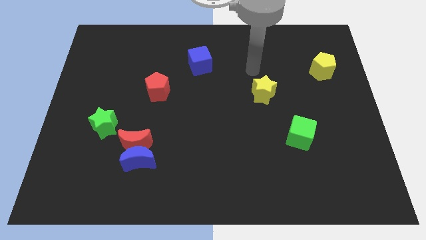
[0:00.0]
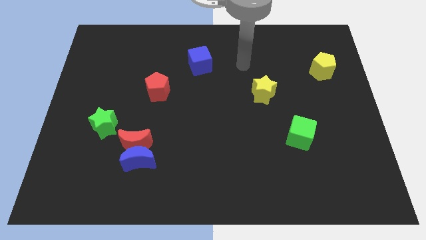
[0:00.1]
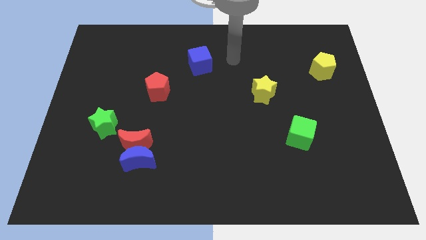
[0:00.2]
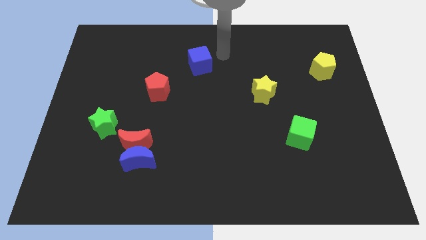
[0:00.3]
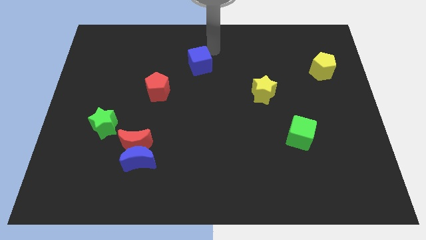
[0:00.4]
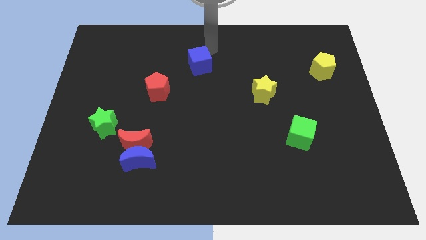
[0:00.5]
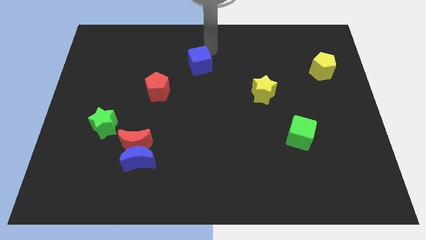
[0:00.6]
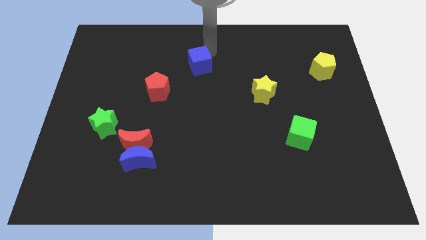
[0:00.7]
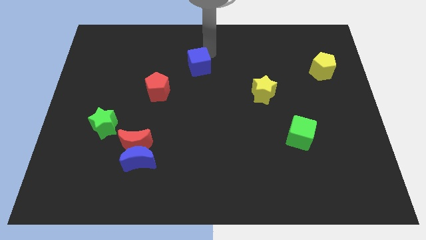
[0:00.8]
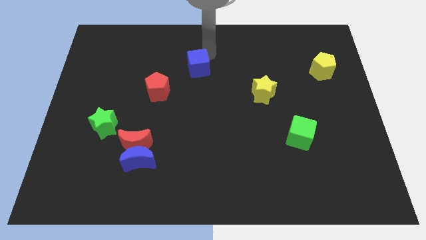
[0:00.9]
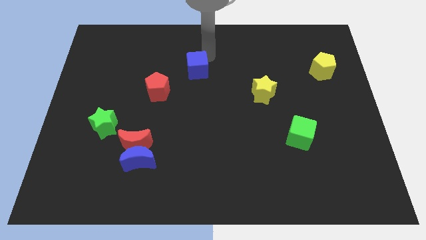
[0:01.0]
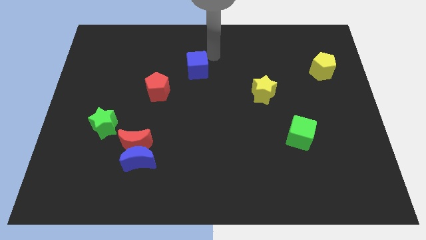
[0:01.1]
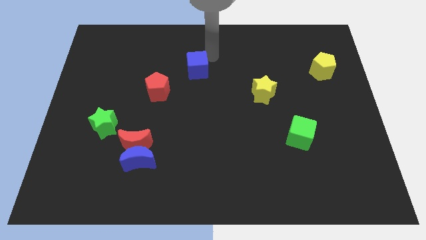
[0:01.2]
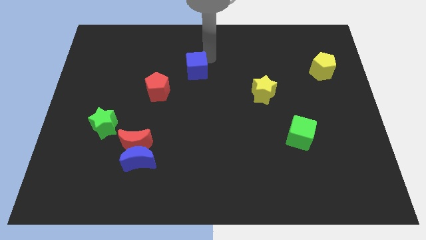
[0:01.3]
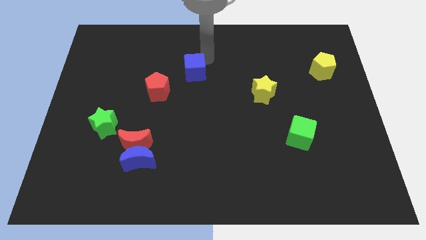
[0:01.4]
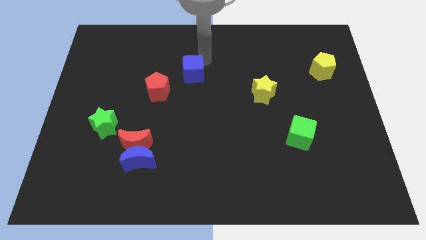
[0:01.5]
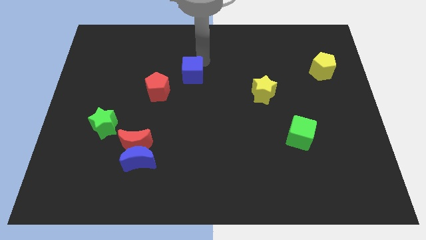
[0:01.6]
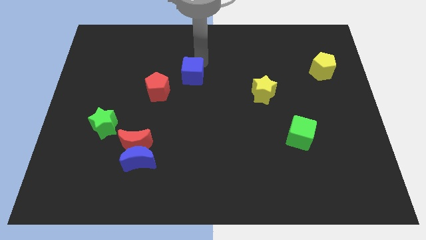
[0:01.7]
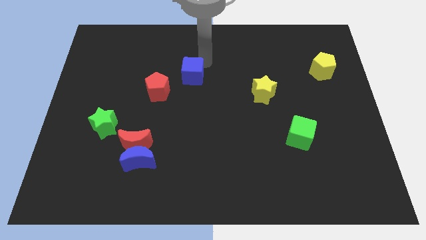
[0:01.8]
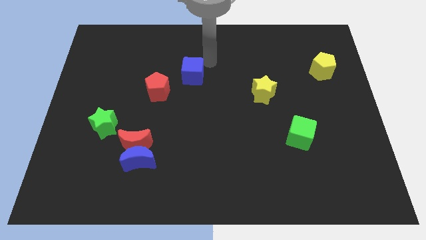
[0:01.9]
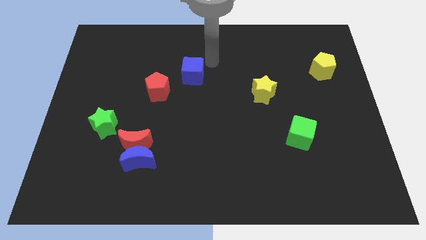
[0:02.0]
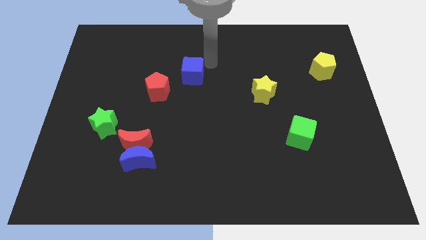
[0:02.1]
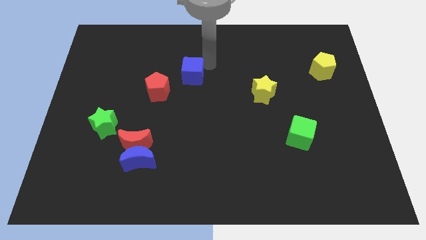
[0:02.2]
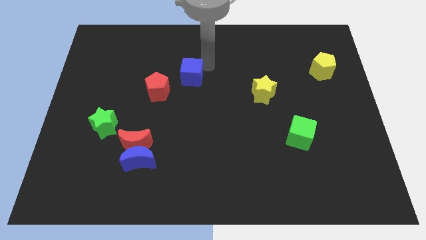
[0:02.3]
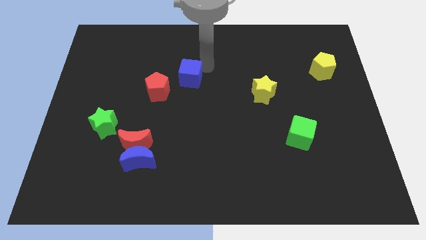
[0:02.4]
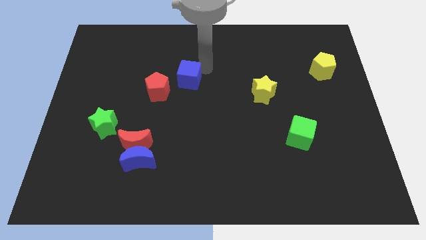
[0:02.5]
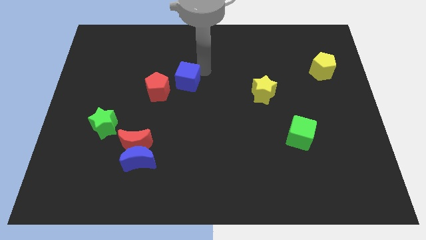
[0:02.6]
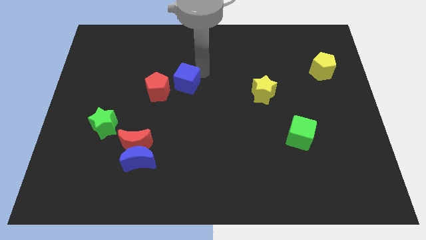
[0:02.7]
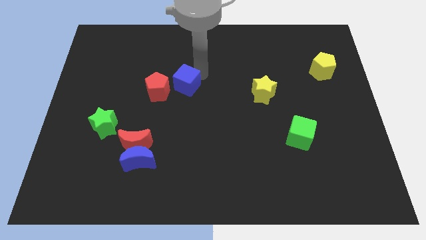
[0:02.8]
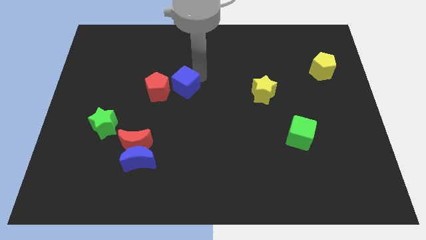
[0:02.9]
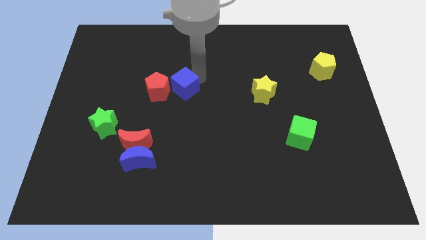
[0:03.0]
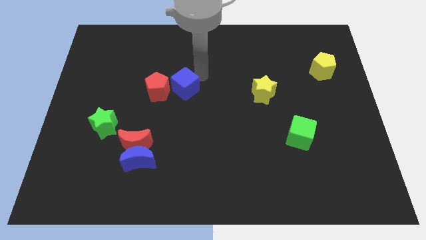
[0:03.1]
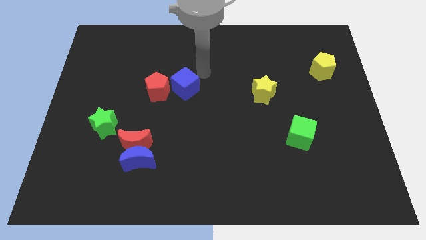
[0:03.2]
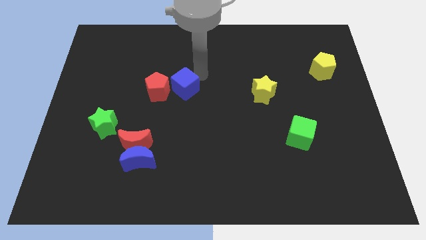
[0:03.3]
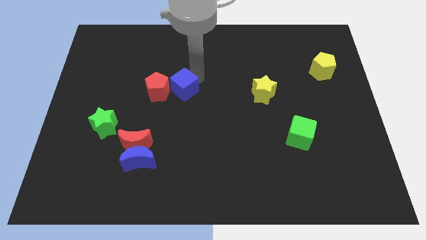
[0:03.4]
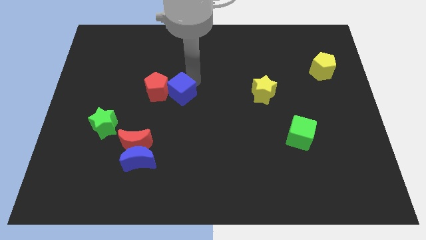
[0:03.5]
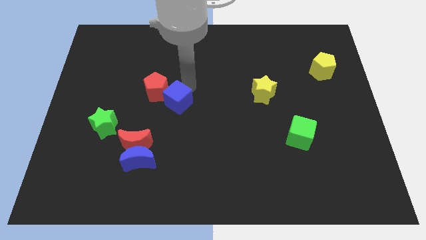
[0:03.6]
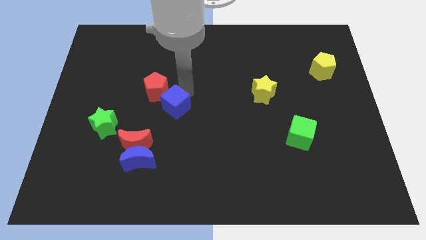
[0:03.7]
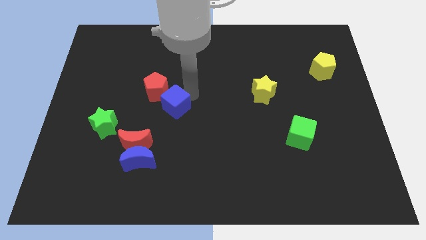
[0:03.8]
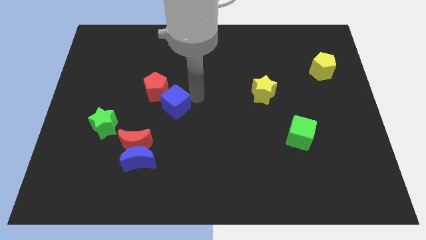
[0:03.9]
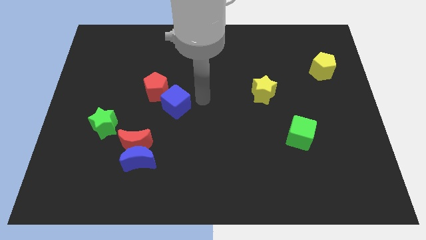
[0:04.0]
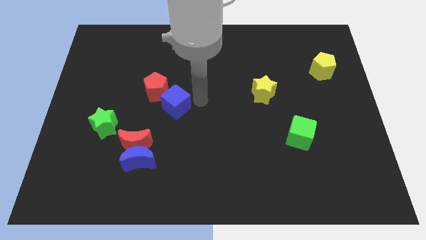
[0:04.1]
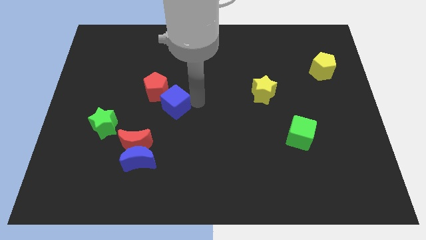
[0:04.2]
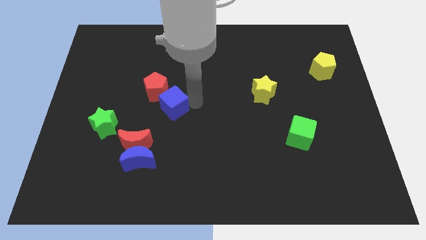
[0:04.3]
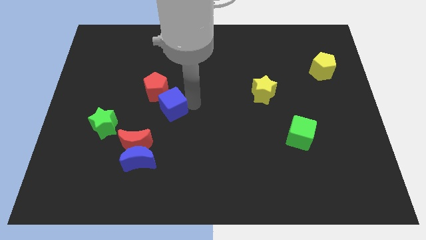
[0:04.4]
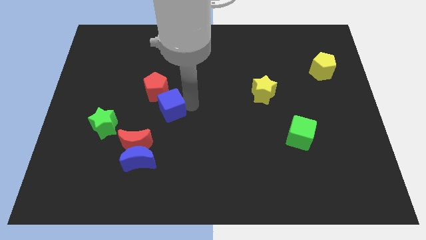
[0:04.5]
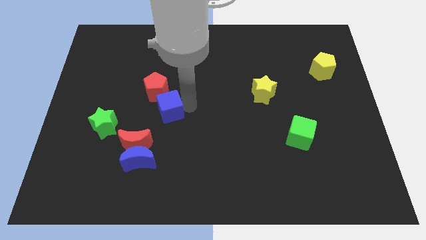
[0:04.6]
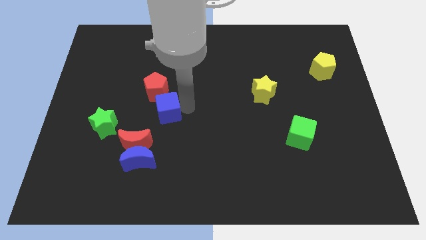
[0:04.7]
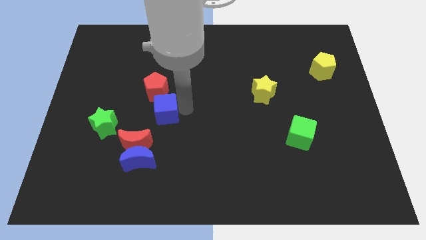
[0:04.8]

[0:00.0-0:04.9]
move the blue cube to the top of the blue moon

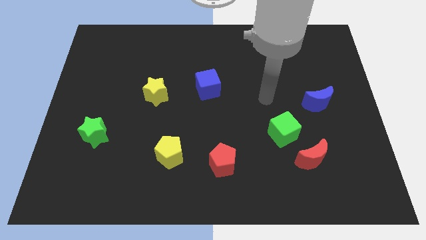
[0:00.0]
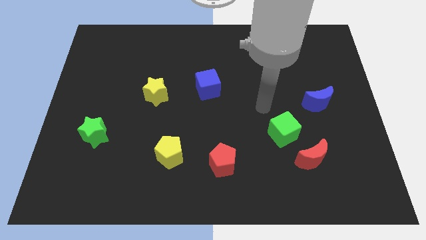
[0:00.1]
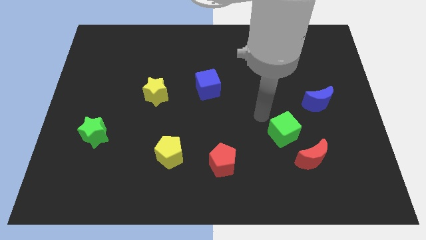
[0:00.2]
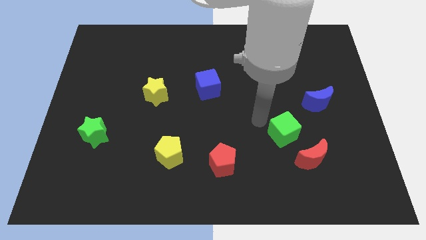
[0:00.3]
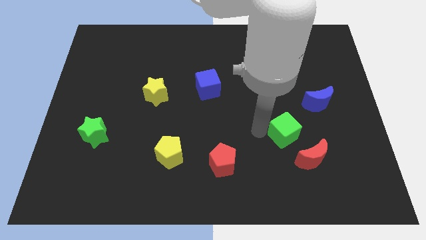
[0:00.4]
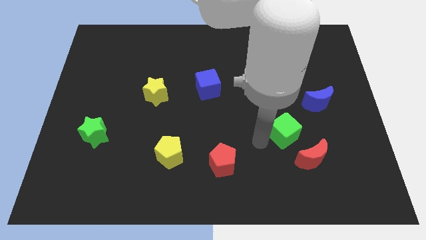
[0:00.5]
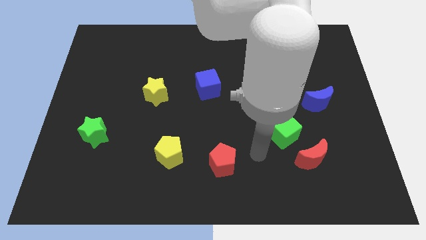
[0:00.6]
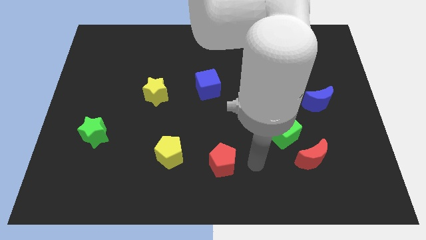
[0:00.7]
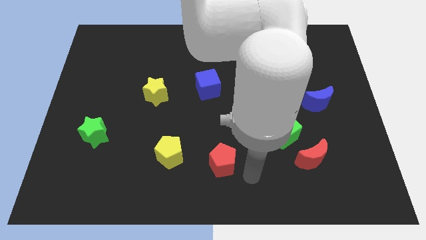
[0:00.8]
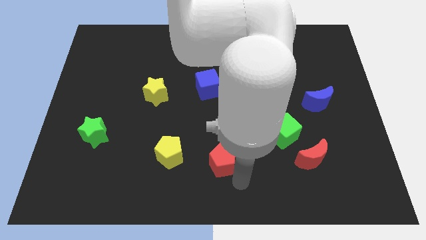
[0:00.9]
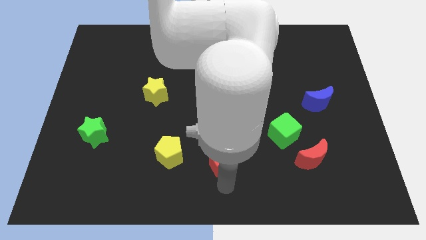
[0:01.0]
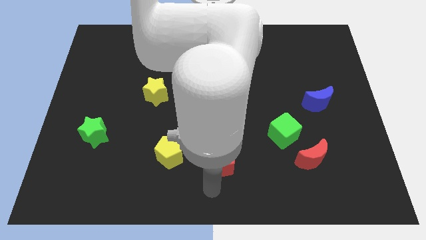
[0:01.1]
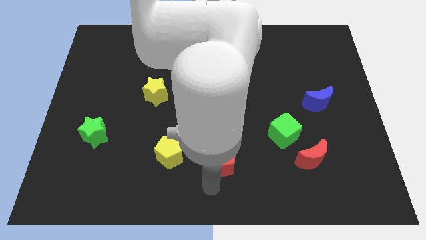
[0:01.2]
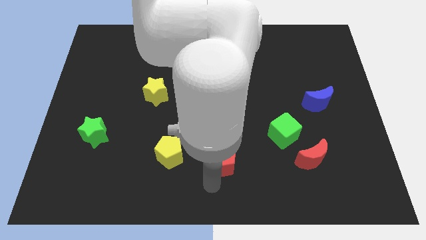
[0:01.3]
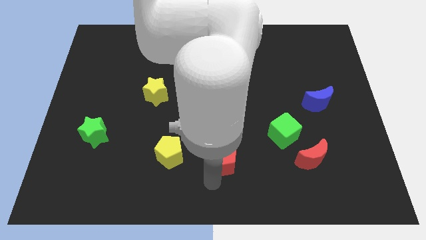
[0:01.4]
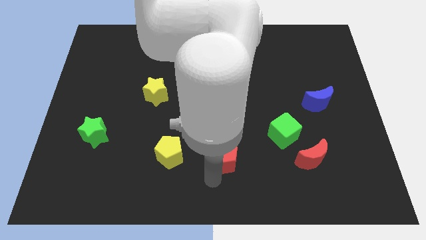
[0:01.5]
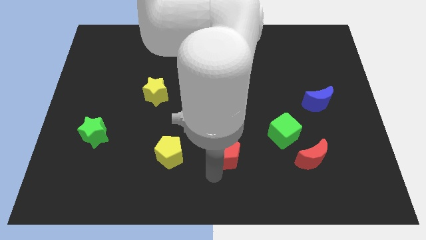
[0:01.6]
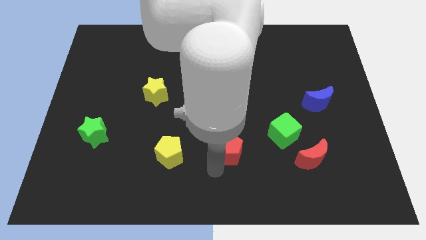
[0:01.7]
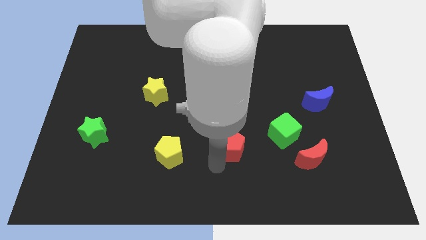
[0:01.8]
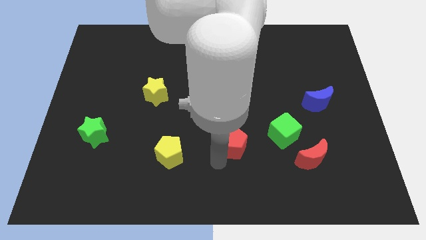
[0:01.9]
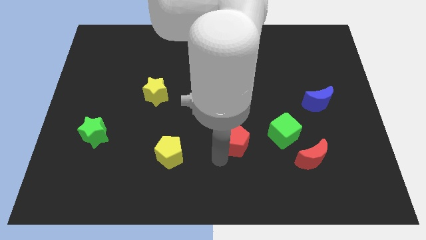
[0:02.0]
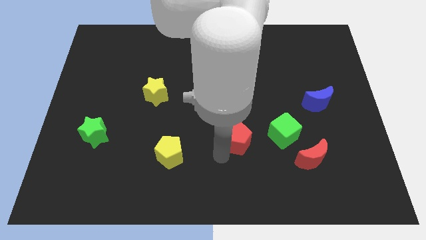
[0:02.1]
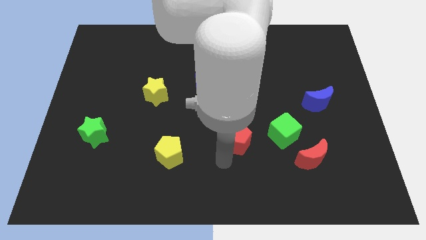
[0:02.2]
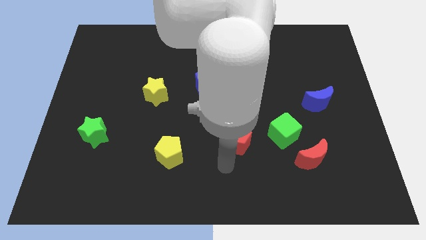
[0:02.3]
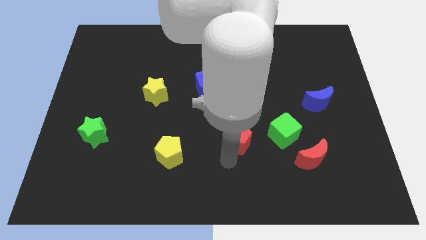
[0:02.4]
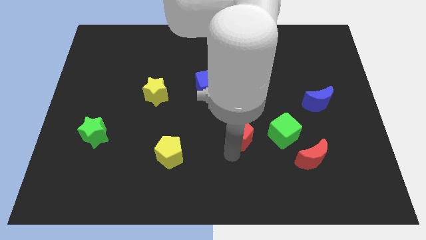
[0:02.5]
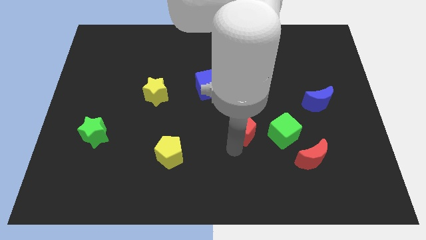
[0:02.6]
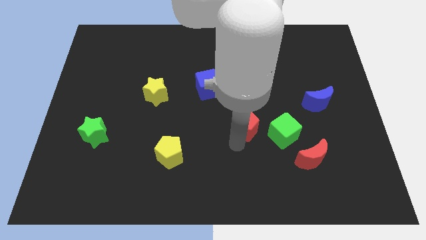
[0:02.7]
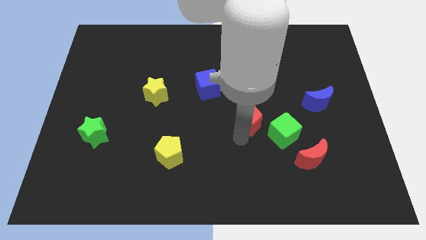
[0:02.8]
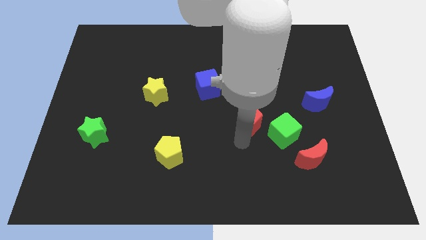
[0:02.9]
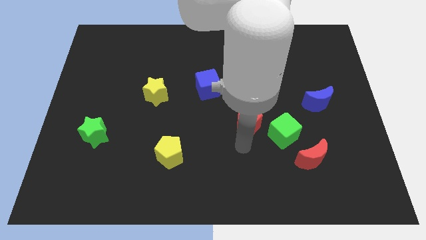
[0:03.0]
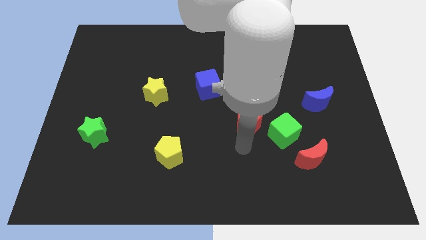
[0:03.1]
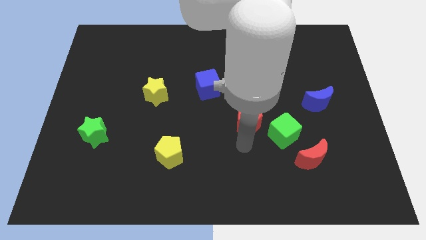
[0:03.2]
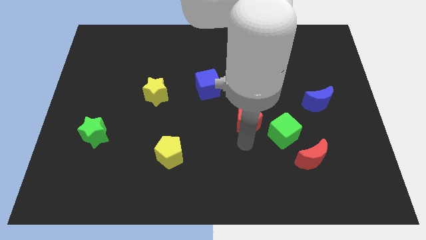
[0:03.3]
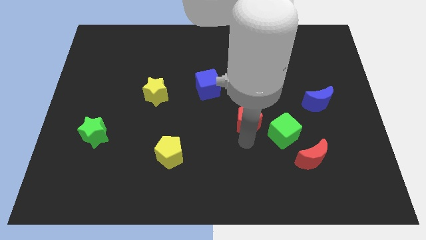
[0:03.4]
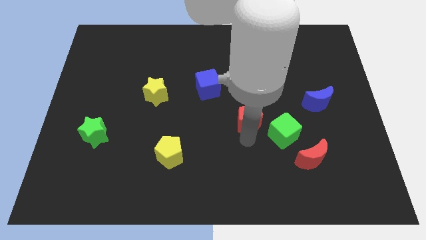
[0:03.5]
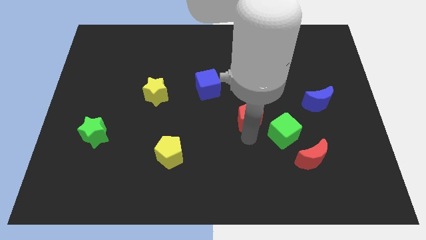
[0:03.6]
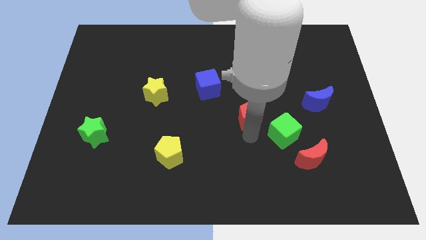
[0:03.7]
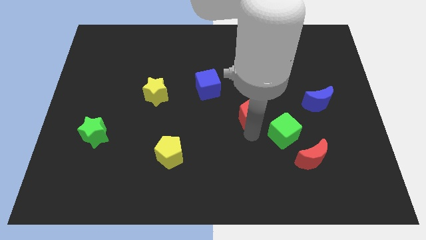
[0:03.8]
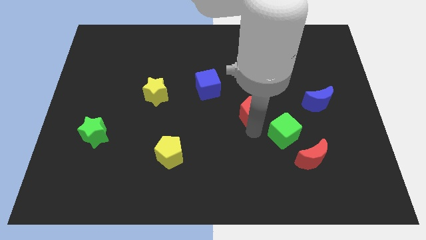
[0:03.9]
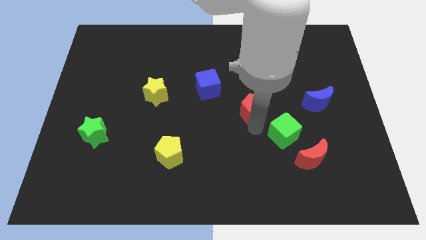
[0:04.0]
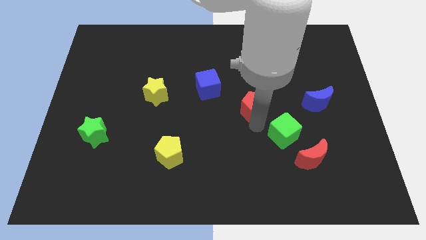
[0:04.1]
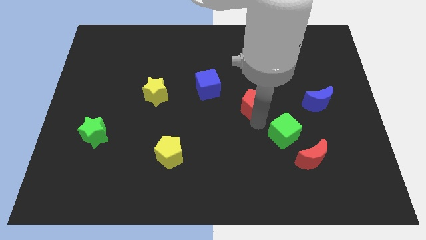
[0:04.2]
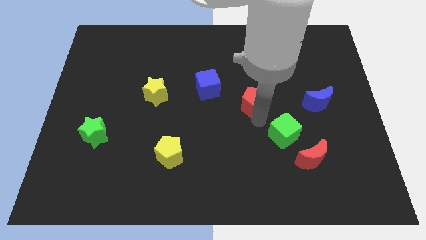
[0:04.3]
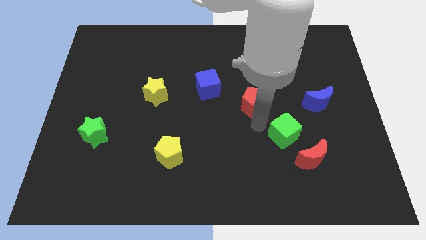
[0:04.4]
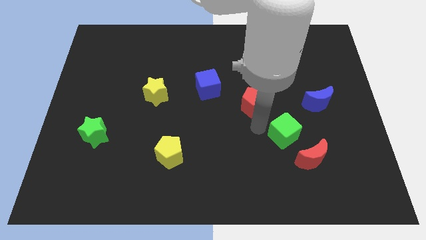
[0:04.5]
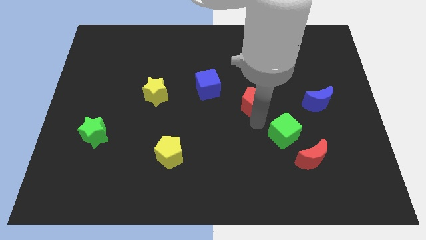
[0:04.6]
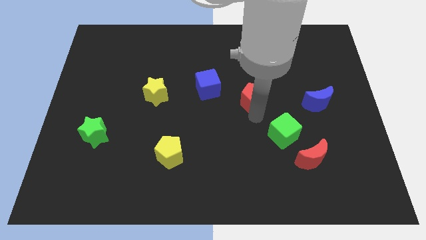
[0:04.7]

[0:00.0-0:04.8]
slide the red pentagon right of the blue cube
